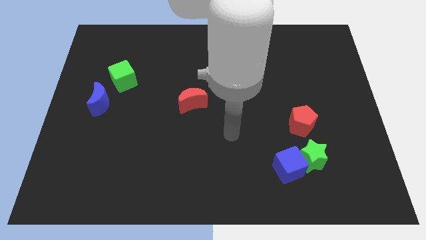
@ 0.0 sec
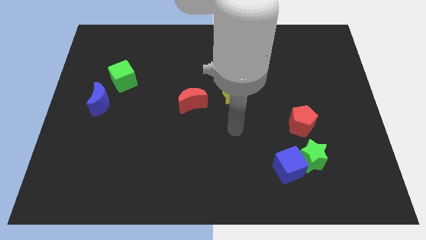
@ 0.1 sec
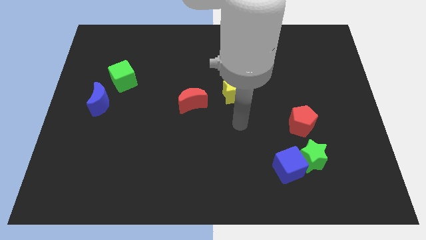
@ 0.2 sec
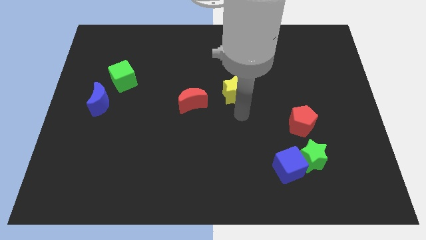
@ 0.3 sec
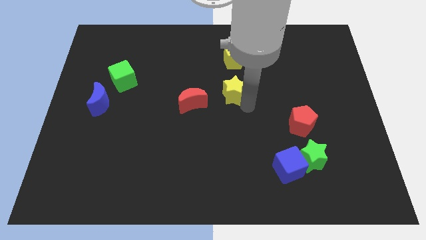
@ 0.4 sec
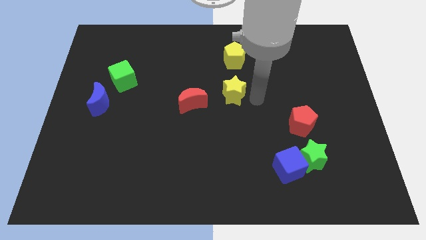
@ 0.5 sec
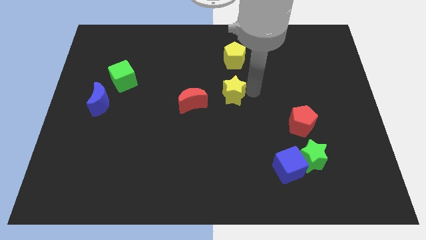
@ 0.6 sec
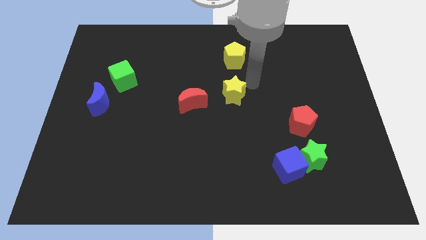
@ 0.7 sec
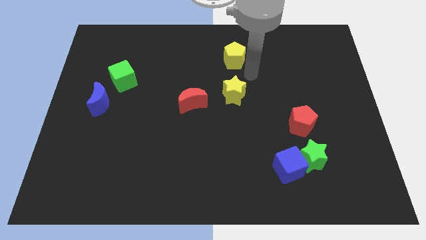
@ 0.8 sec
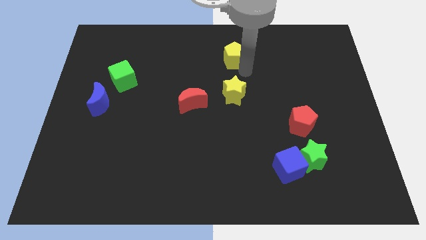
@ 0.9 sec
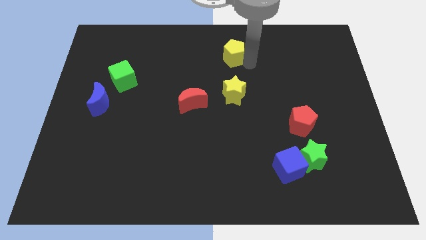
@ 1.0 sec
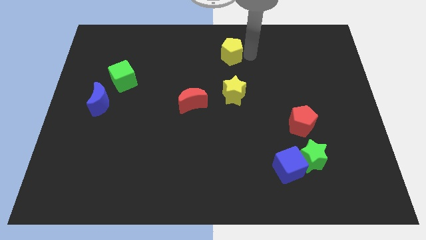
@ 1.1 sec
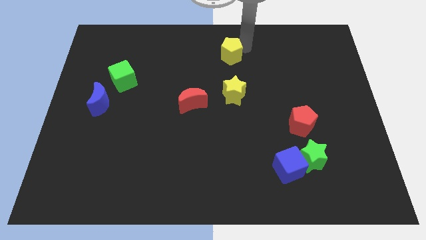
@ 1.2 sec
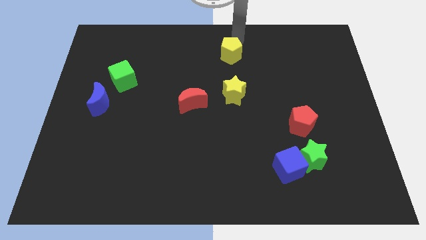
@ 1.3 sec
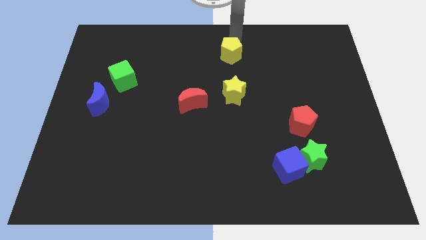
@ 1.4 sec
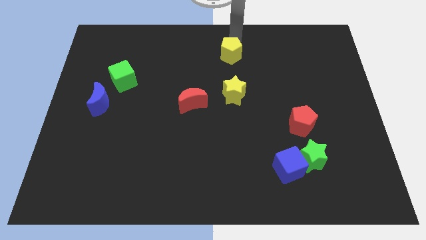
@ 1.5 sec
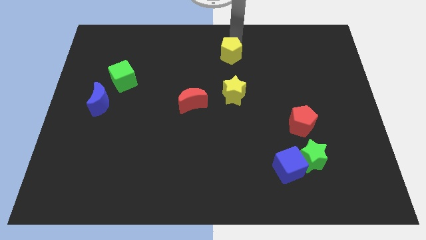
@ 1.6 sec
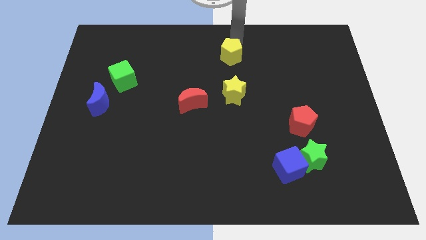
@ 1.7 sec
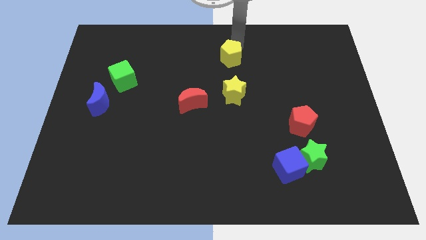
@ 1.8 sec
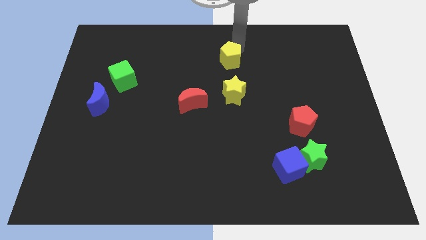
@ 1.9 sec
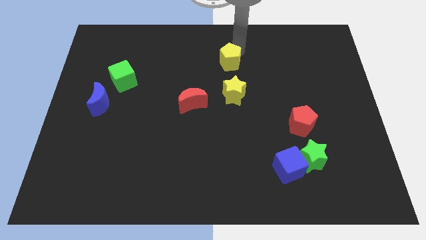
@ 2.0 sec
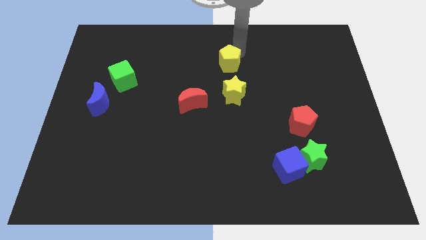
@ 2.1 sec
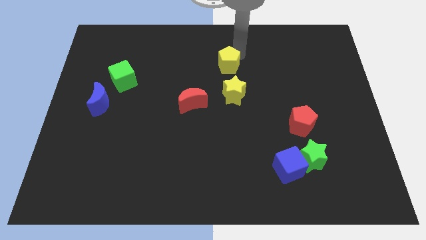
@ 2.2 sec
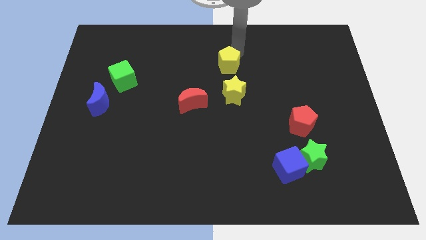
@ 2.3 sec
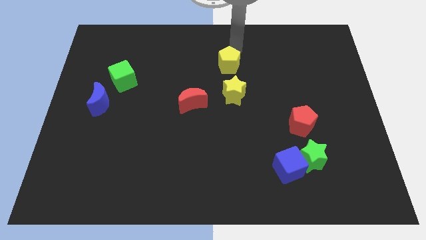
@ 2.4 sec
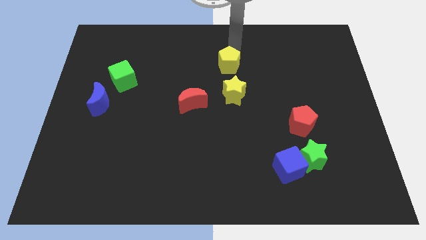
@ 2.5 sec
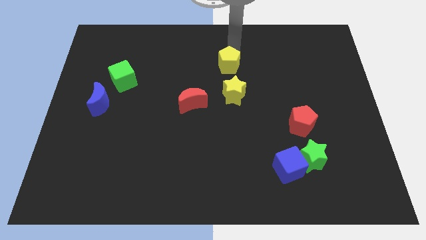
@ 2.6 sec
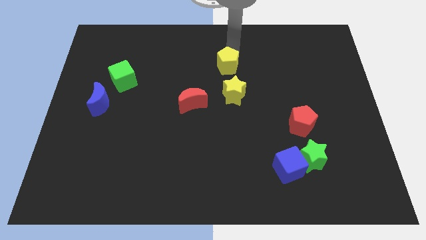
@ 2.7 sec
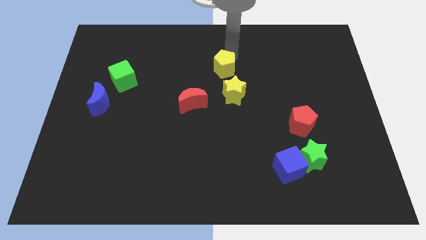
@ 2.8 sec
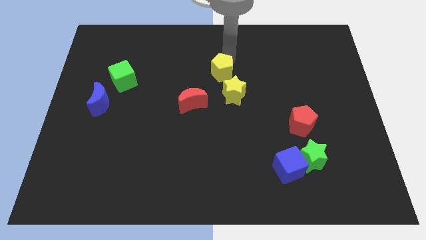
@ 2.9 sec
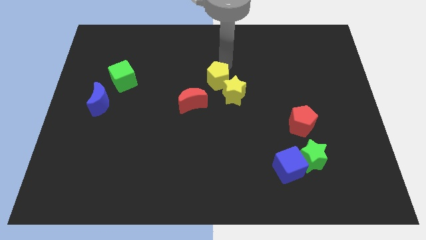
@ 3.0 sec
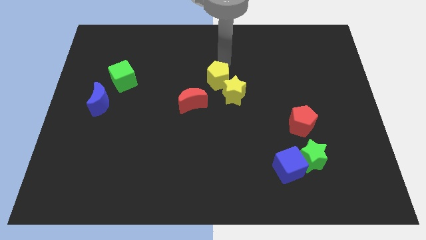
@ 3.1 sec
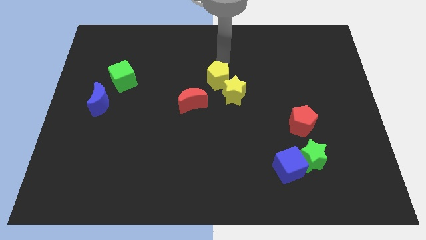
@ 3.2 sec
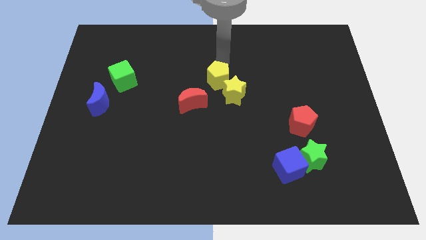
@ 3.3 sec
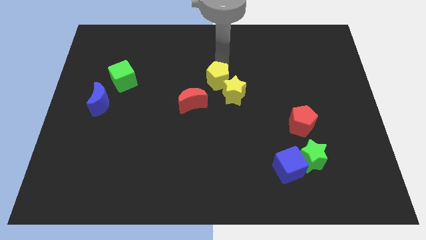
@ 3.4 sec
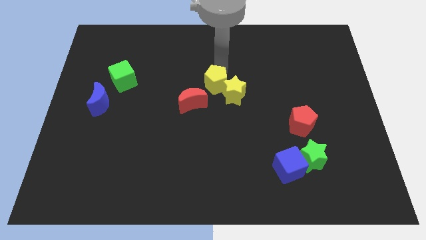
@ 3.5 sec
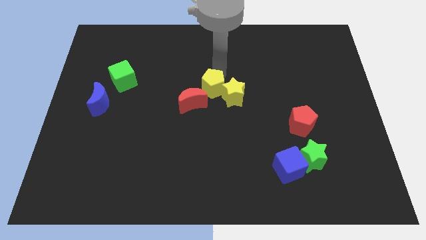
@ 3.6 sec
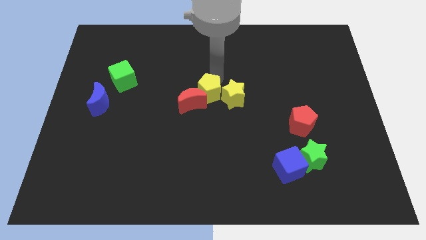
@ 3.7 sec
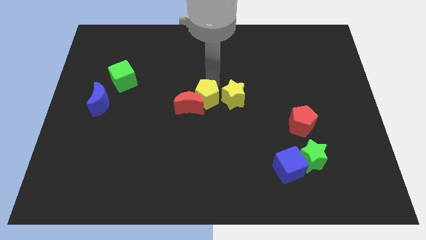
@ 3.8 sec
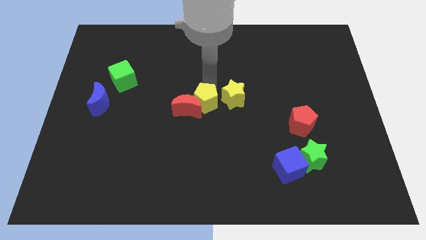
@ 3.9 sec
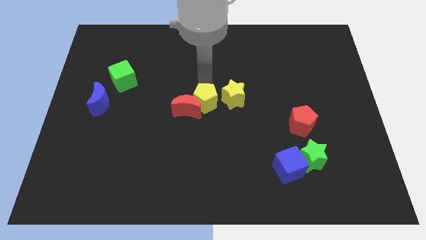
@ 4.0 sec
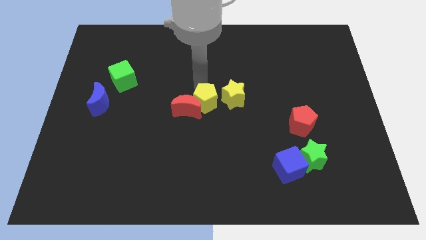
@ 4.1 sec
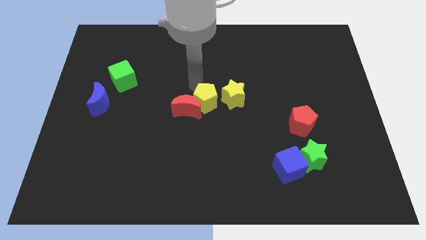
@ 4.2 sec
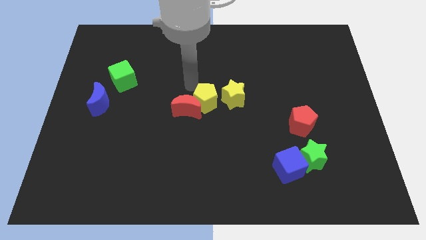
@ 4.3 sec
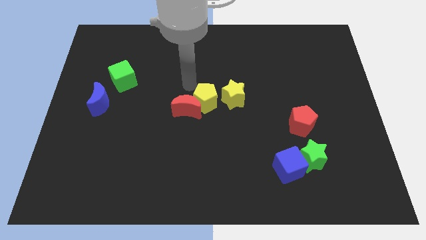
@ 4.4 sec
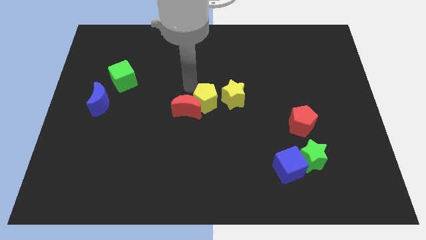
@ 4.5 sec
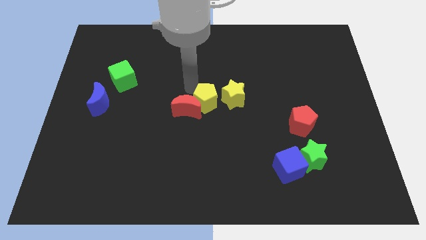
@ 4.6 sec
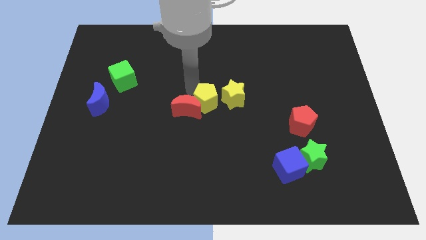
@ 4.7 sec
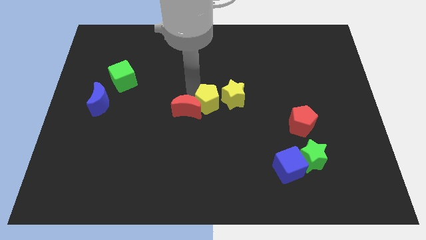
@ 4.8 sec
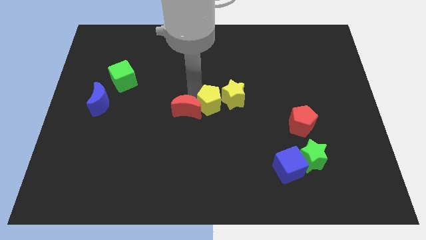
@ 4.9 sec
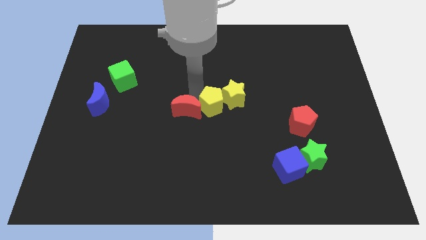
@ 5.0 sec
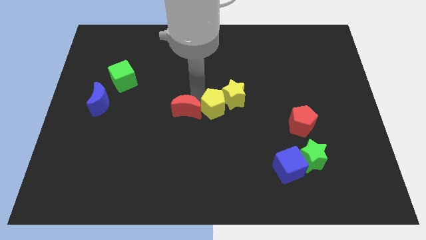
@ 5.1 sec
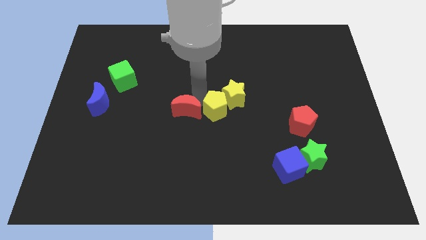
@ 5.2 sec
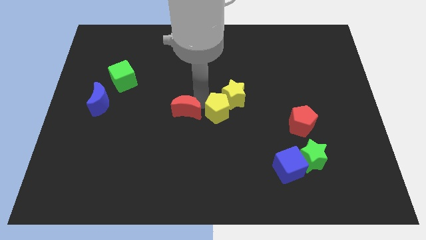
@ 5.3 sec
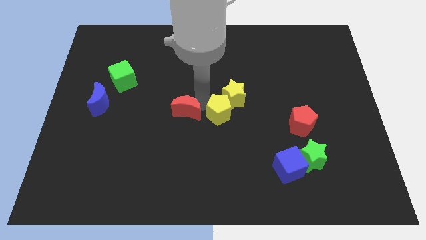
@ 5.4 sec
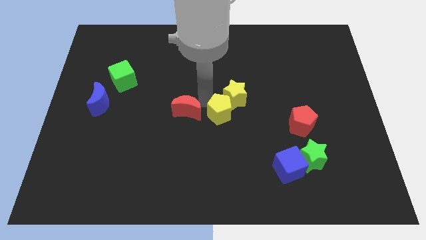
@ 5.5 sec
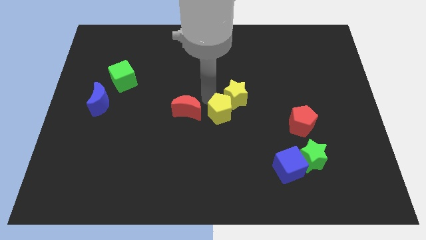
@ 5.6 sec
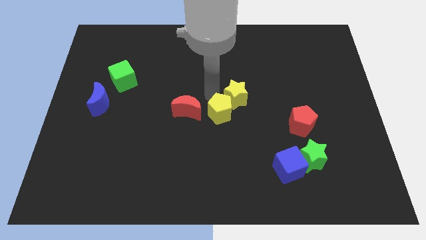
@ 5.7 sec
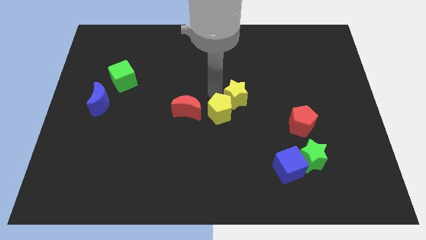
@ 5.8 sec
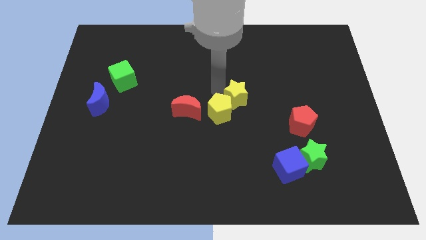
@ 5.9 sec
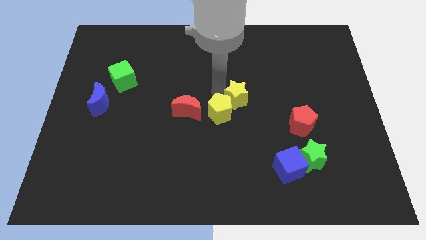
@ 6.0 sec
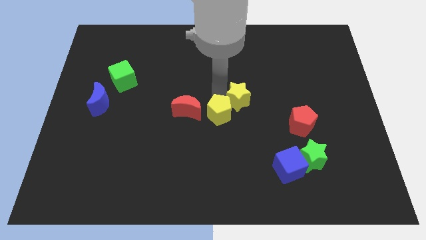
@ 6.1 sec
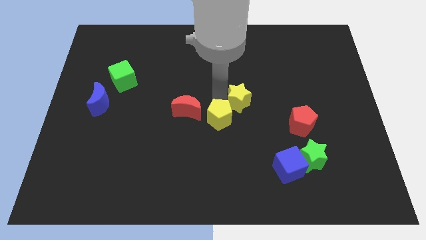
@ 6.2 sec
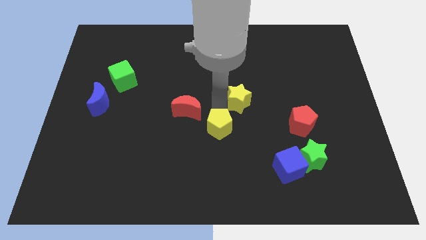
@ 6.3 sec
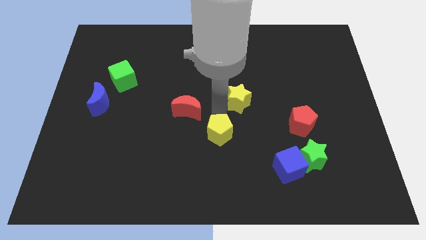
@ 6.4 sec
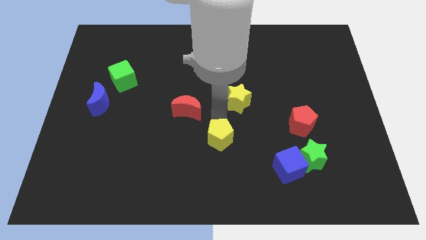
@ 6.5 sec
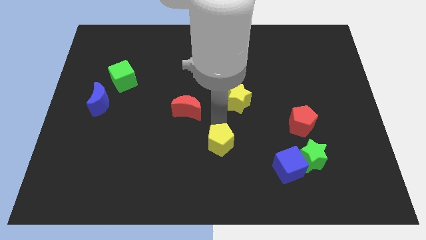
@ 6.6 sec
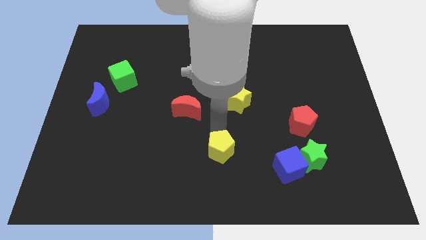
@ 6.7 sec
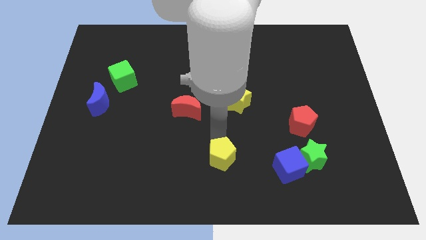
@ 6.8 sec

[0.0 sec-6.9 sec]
push the yellow pentagon to the left side of the blue cube
